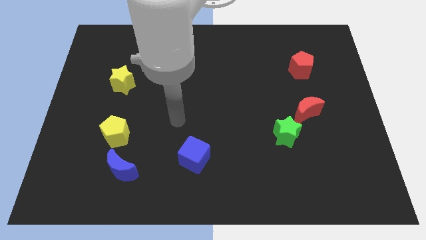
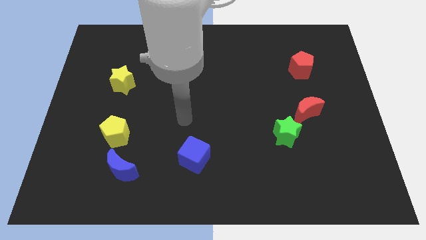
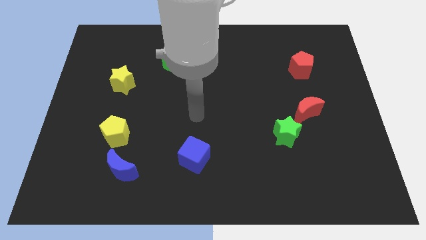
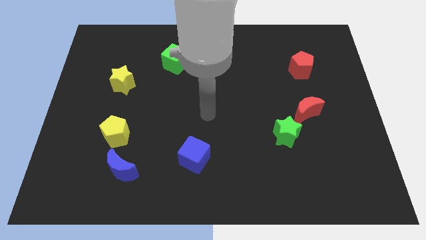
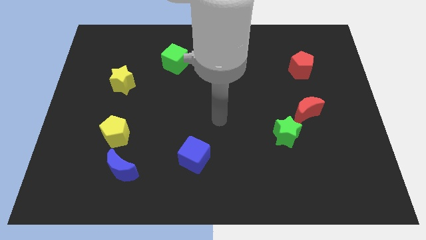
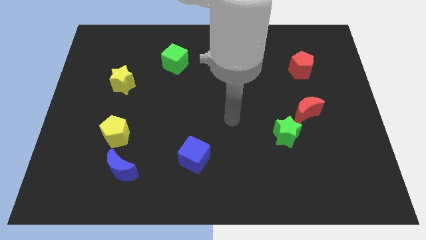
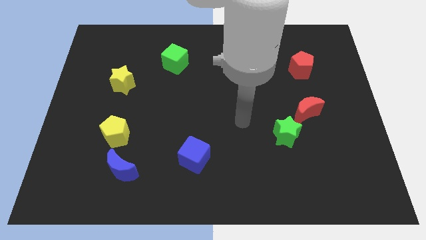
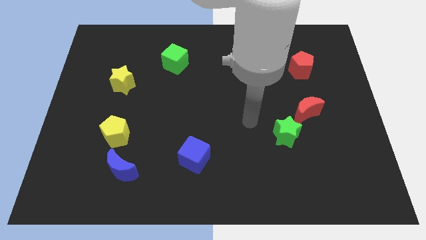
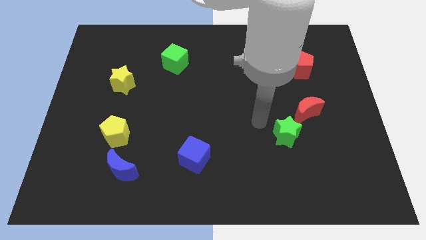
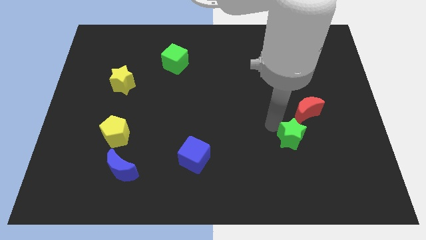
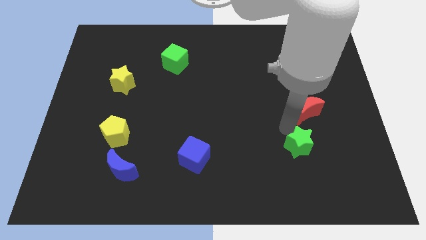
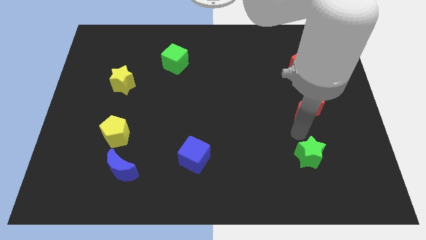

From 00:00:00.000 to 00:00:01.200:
separate the red moon from the green star

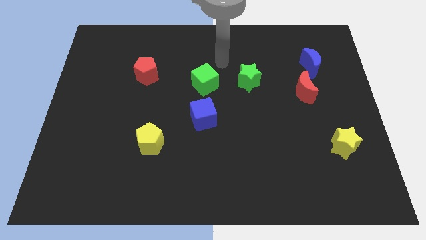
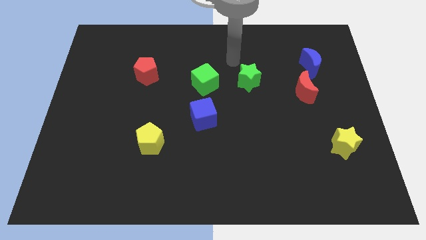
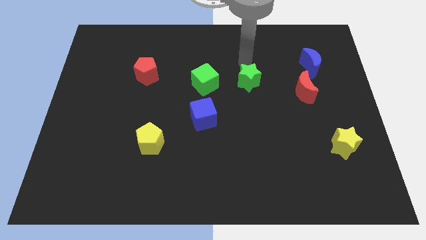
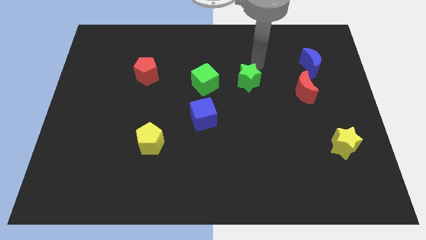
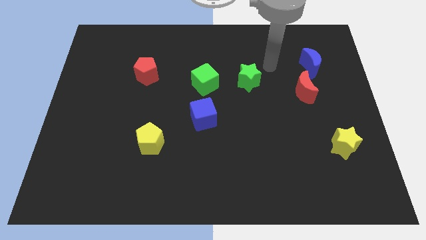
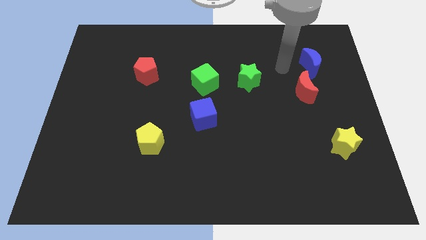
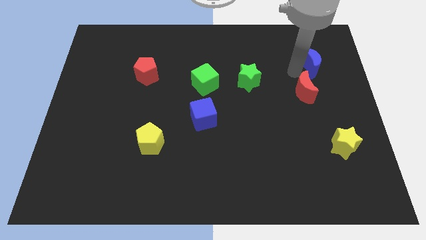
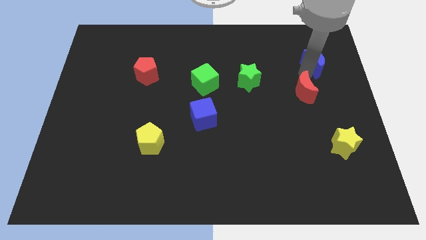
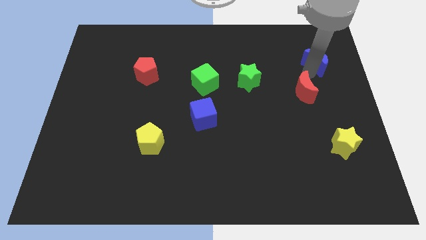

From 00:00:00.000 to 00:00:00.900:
pull the red moon apart from the blue moon

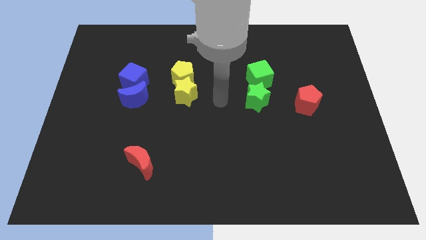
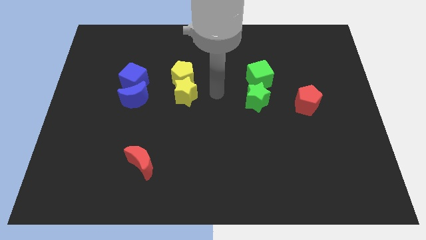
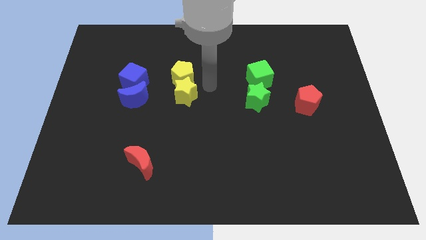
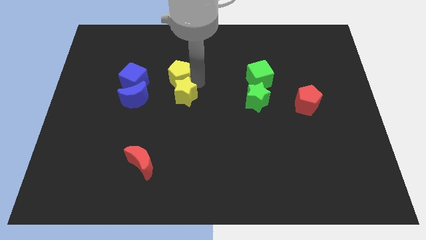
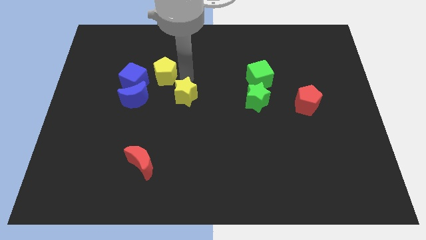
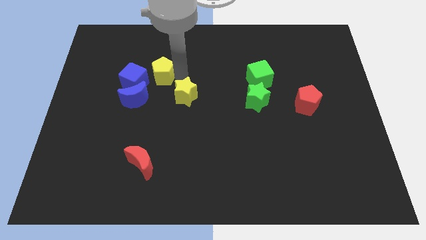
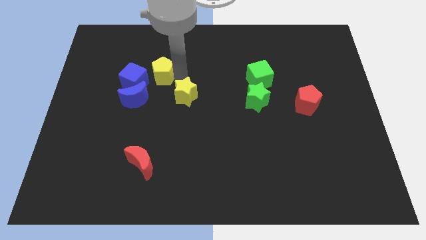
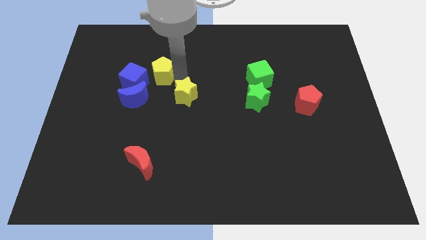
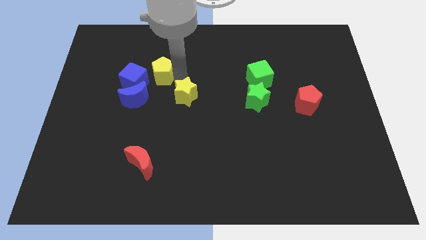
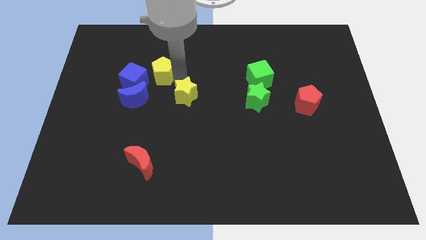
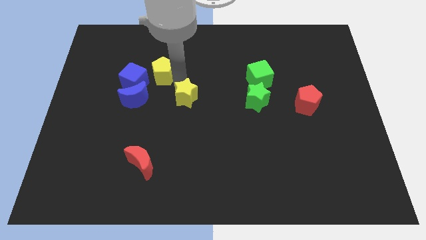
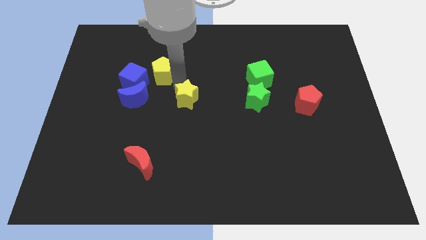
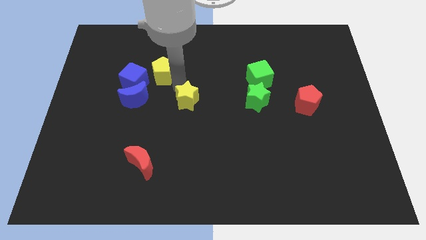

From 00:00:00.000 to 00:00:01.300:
separate the yellow star from the yellow pentagon

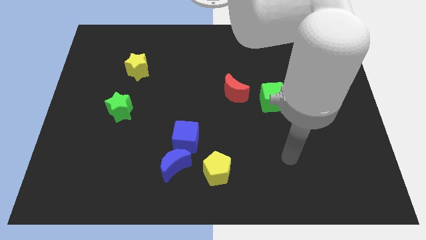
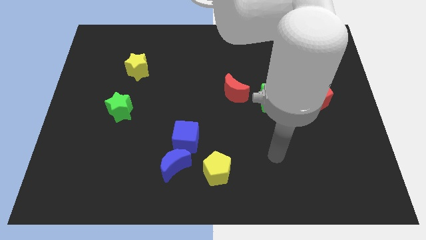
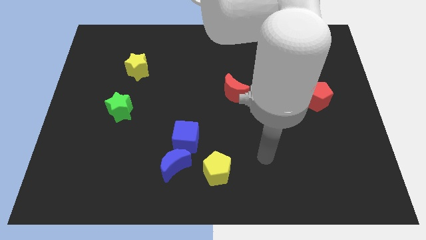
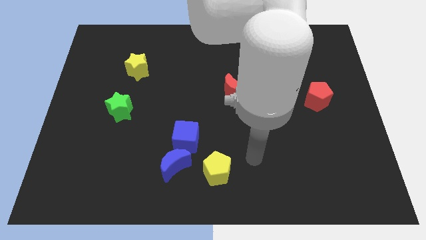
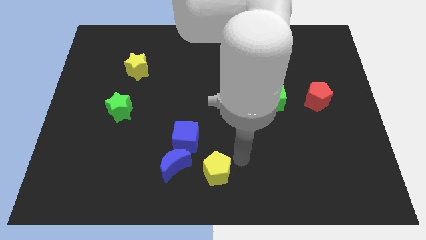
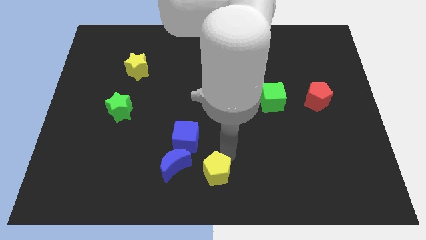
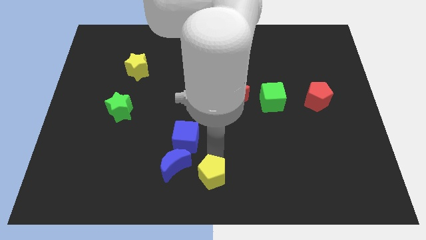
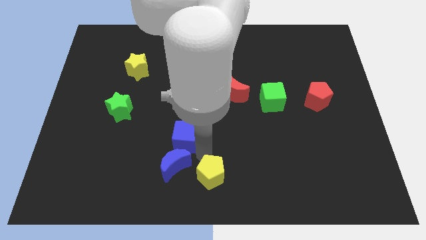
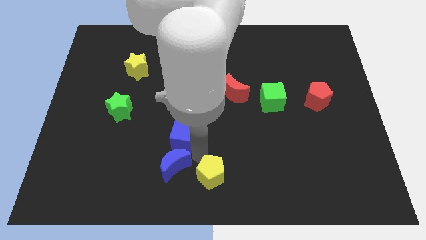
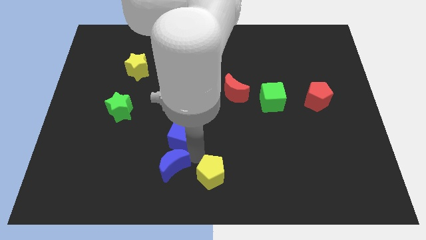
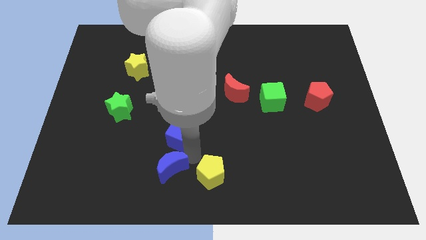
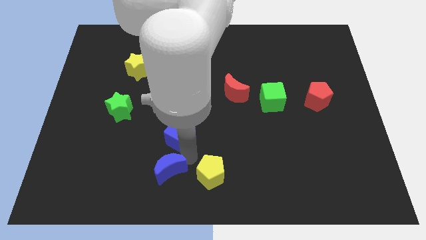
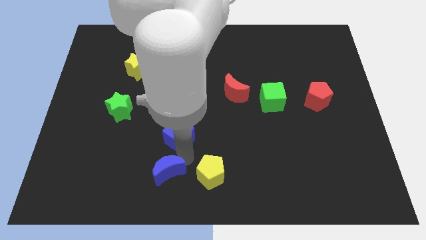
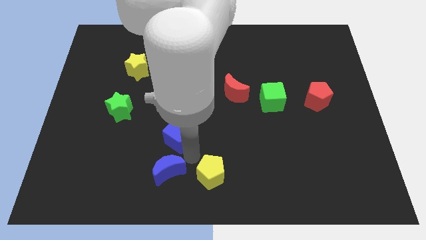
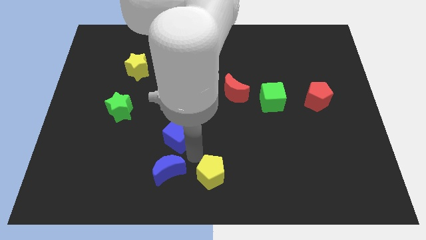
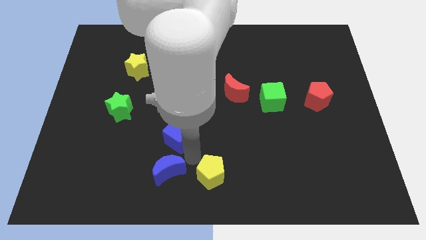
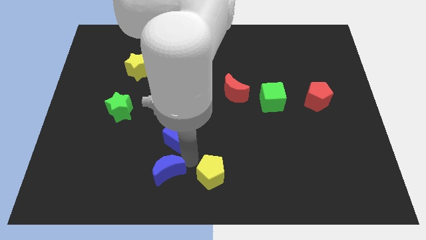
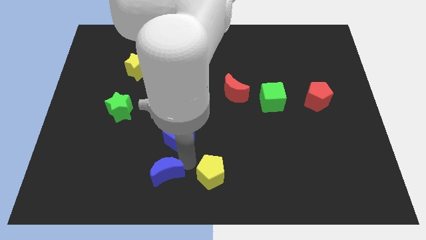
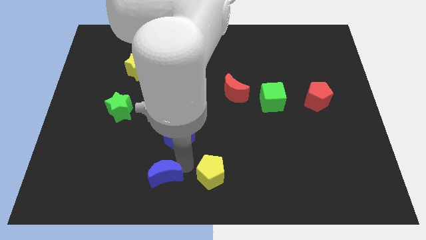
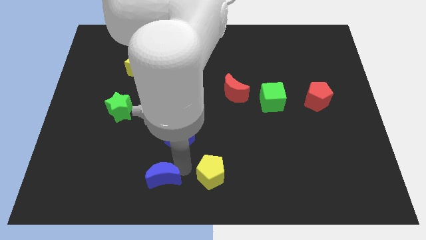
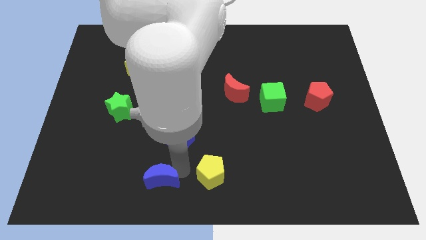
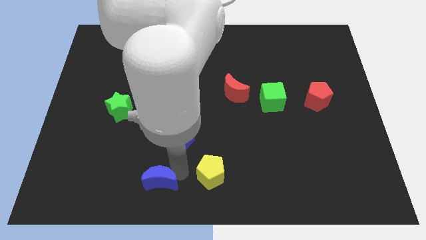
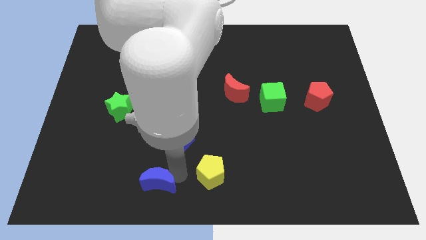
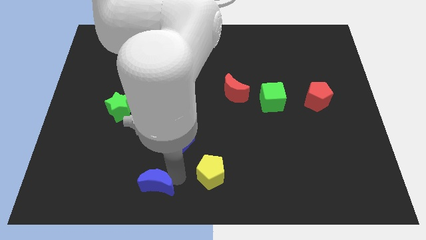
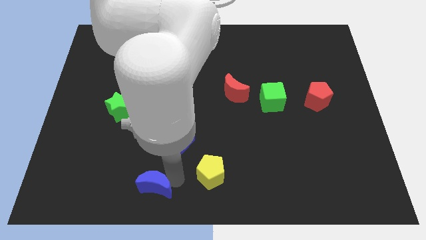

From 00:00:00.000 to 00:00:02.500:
move the blue moon away from the blue cube and yellow pentagon

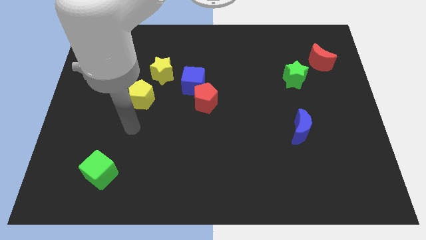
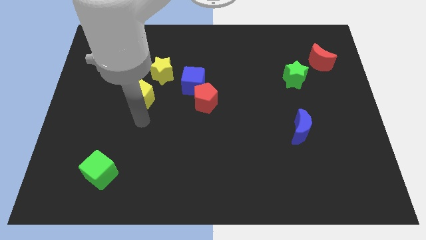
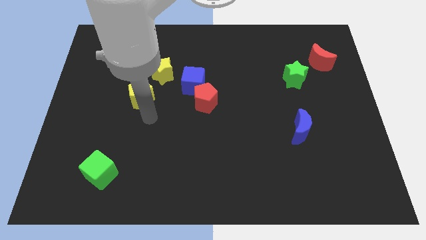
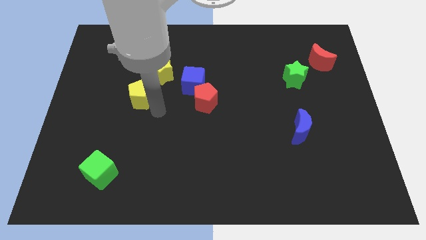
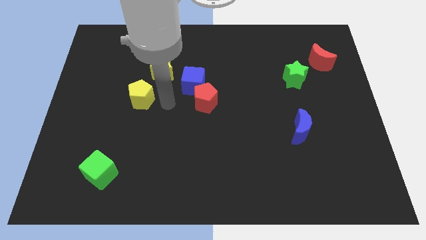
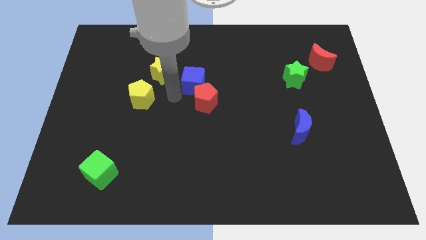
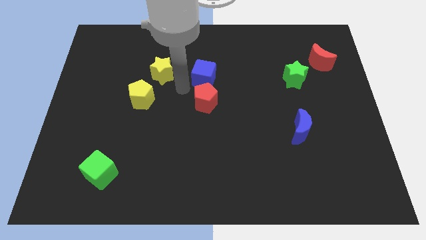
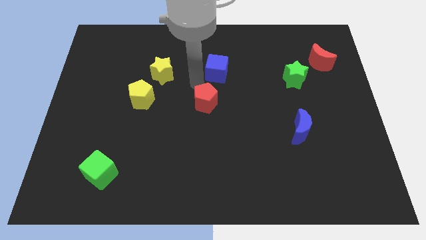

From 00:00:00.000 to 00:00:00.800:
move the red pentagon away from the blue cube

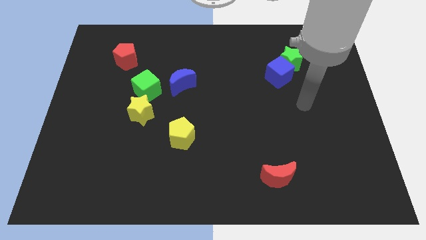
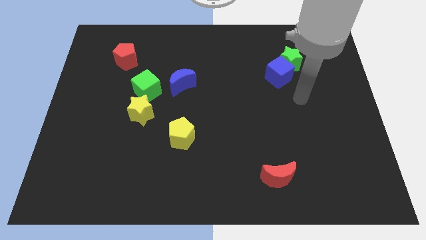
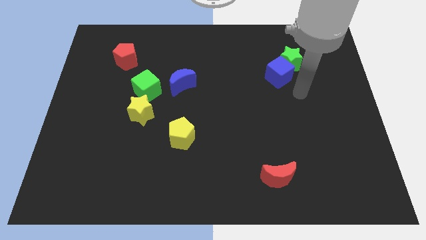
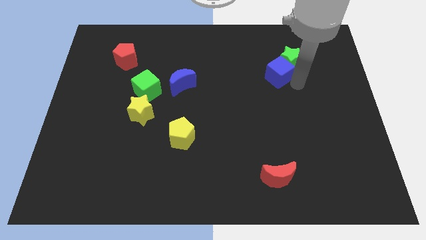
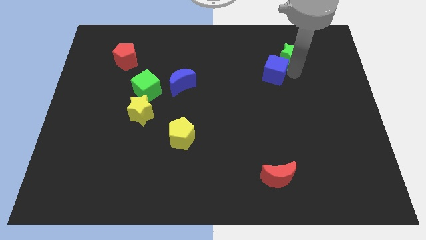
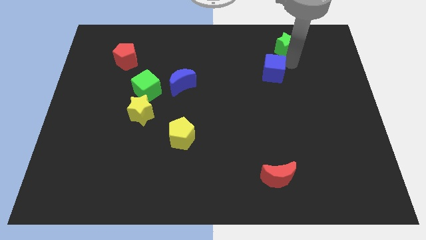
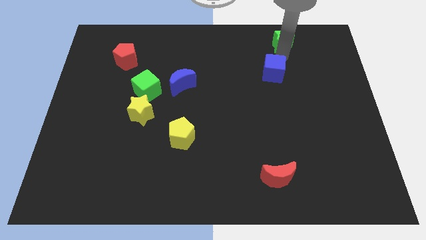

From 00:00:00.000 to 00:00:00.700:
move the blue cube away from the green star

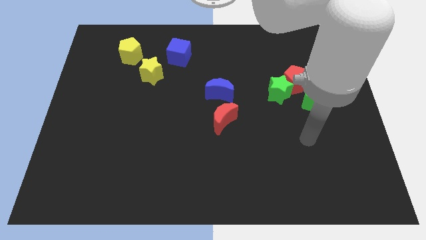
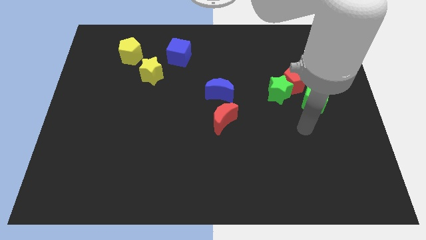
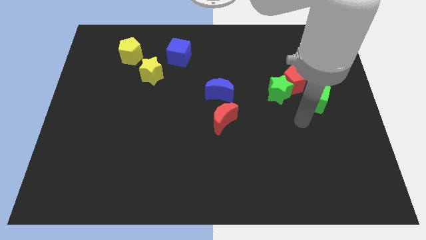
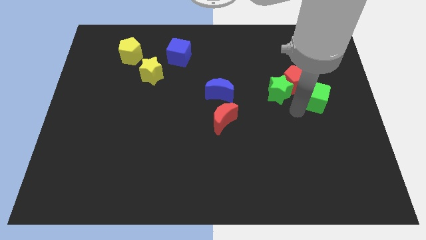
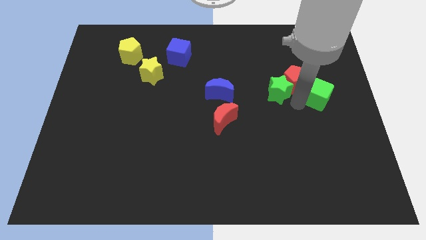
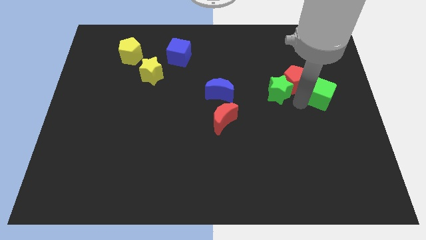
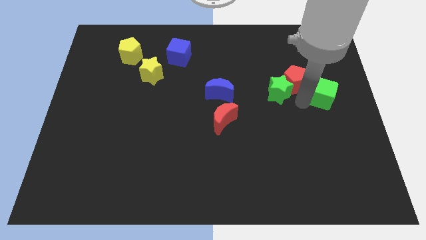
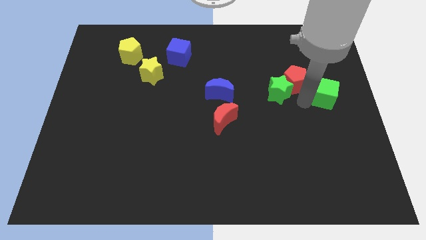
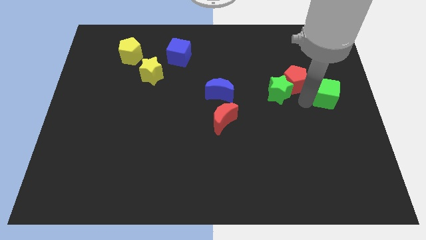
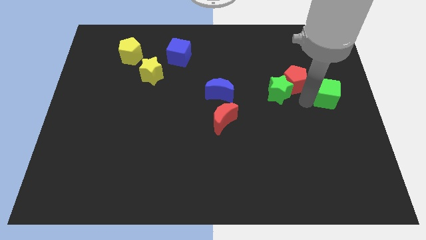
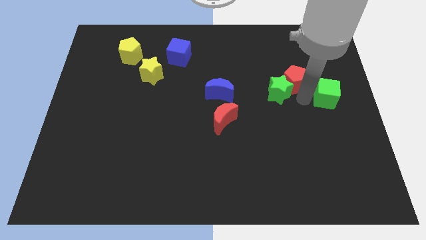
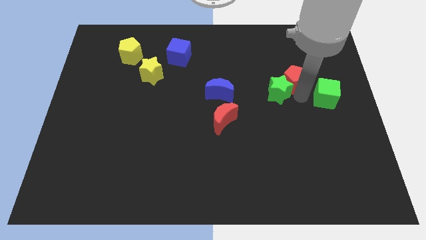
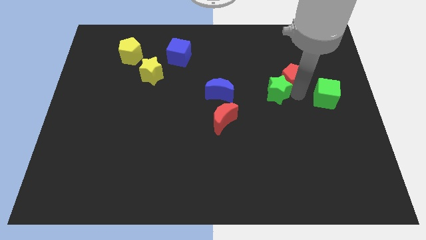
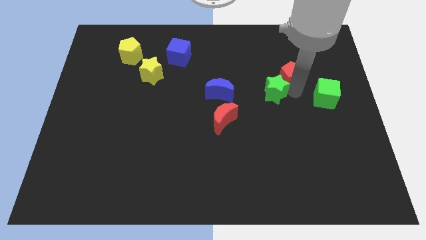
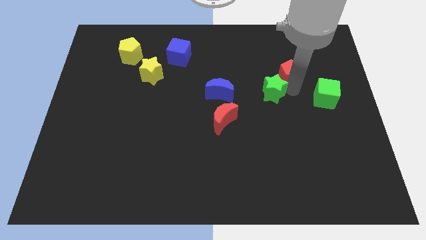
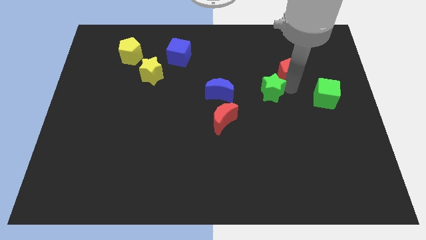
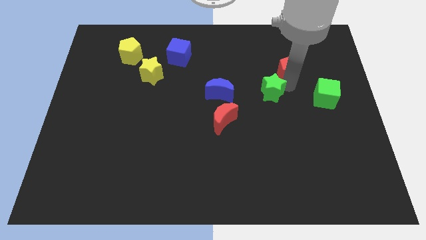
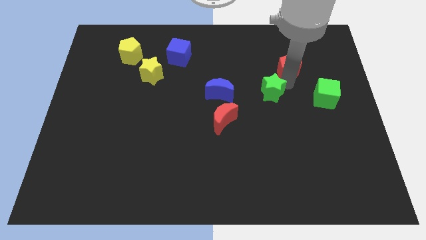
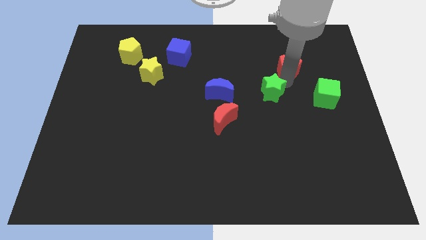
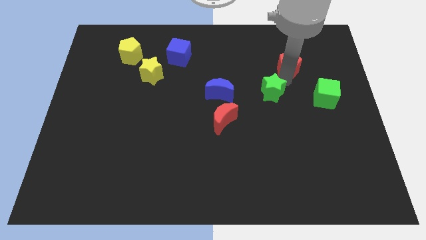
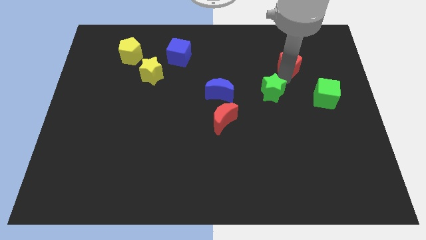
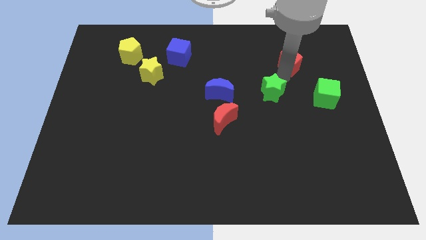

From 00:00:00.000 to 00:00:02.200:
move the red pentagon away from the green star and green cube
